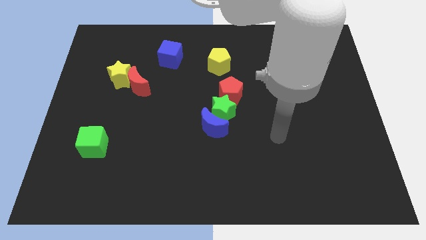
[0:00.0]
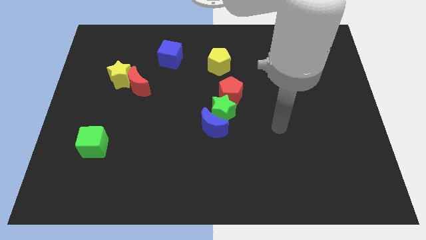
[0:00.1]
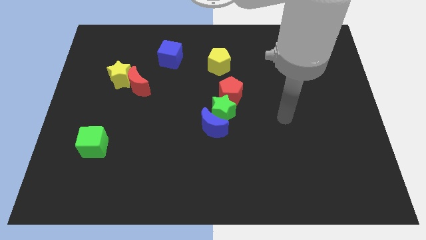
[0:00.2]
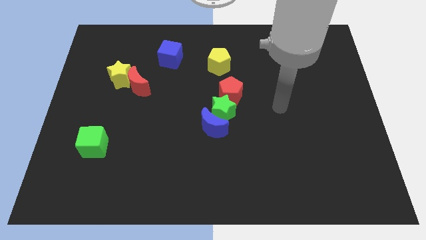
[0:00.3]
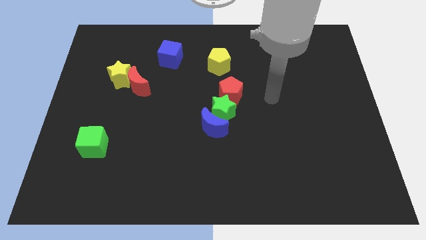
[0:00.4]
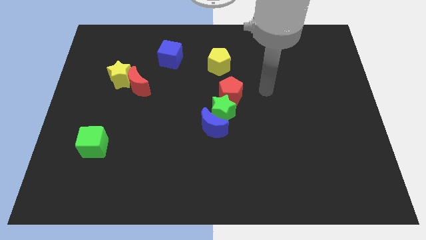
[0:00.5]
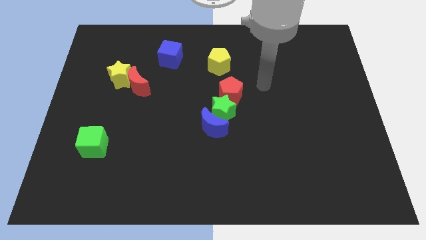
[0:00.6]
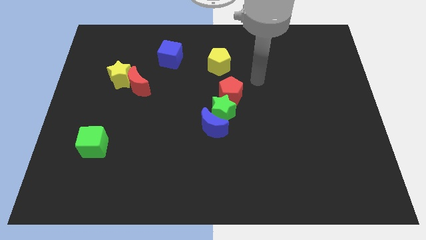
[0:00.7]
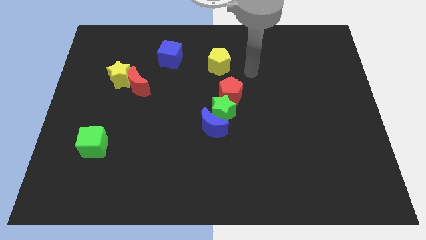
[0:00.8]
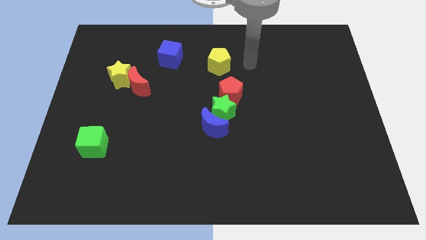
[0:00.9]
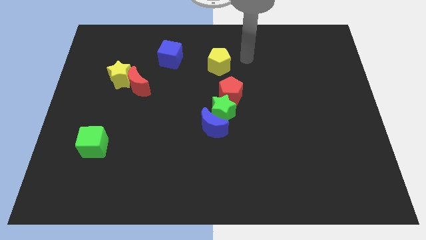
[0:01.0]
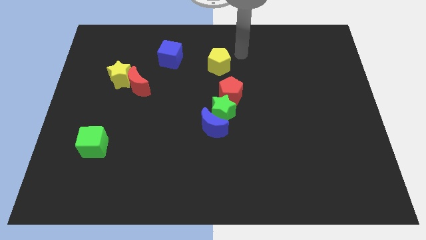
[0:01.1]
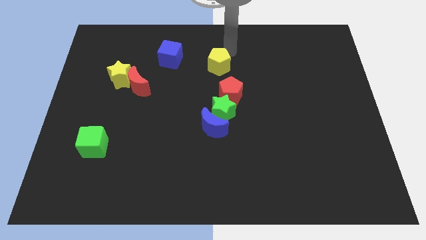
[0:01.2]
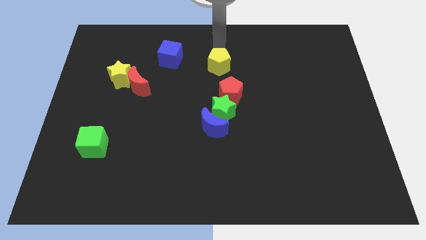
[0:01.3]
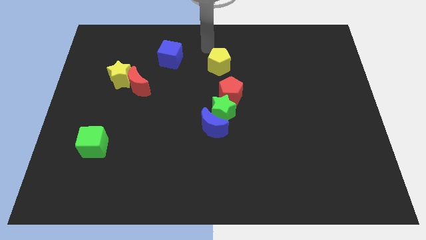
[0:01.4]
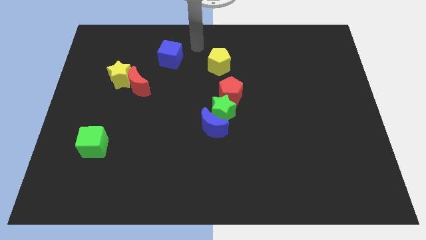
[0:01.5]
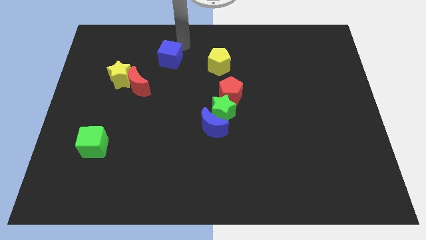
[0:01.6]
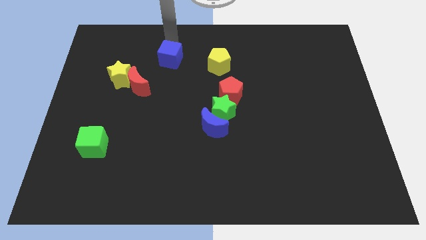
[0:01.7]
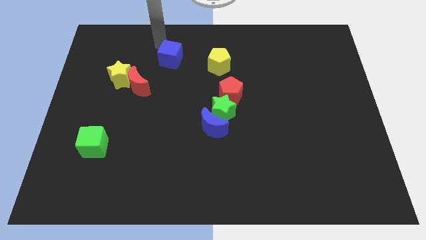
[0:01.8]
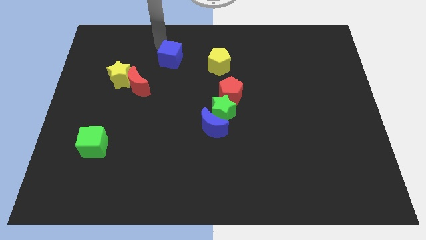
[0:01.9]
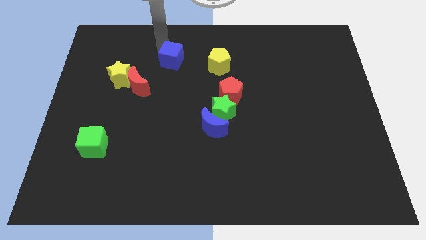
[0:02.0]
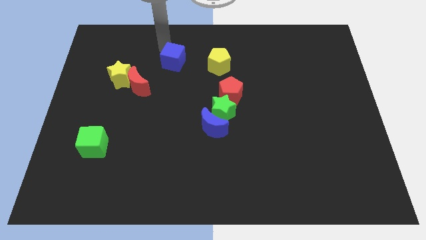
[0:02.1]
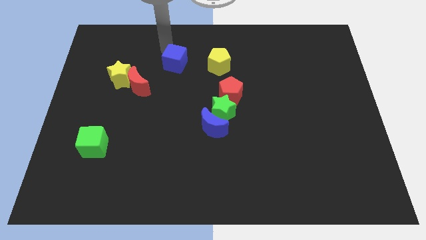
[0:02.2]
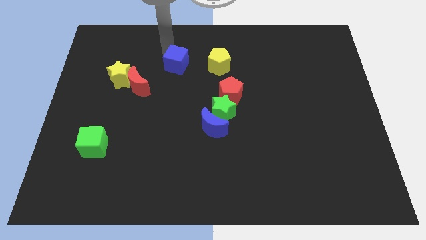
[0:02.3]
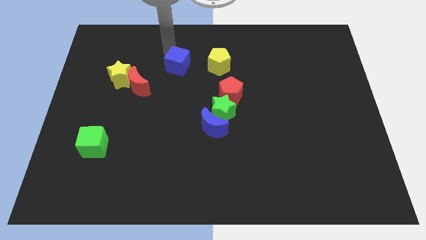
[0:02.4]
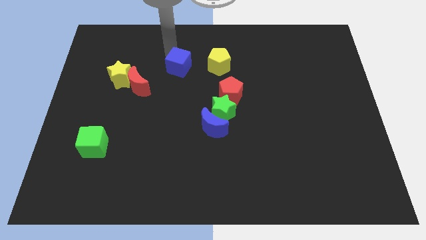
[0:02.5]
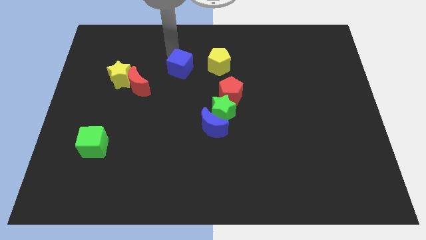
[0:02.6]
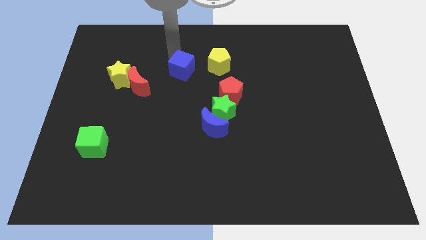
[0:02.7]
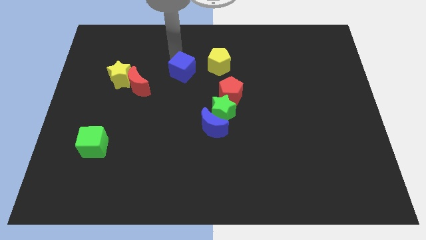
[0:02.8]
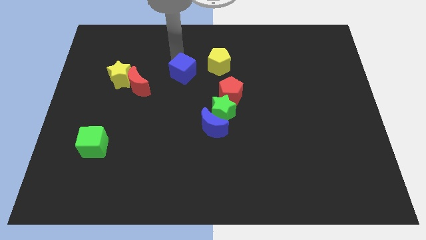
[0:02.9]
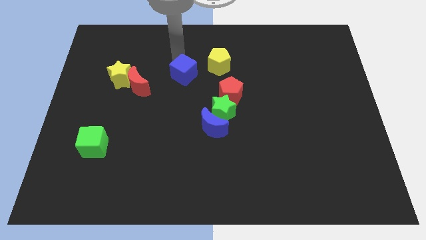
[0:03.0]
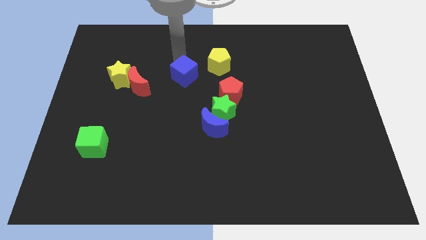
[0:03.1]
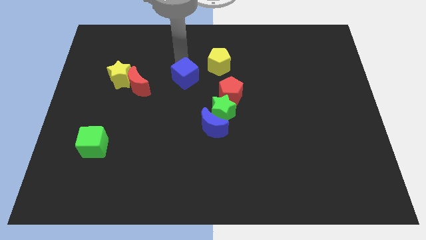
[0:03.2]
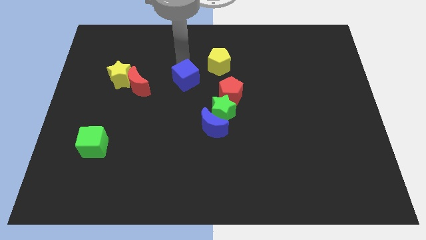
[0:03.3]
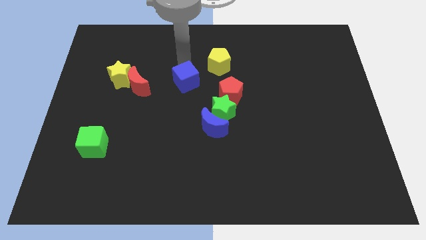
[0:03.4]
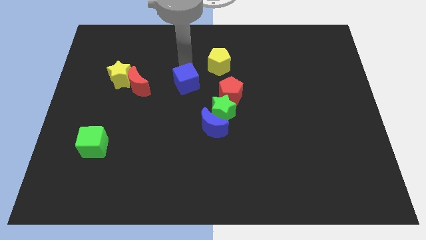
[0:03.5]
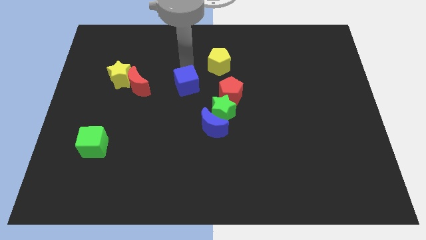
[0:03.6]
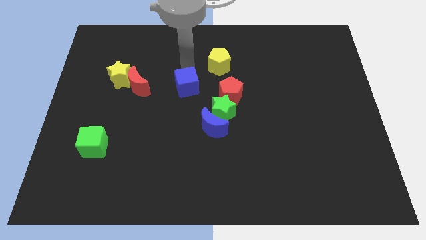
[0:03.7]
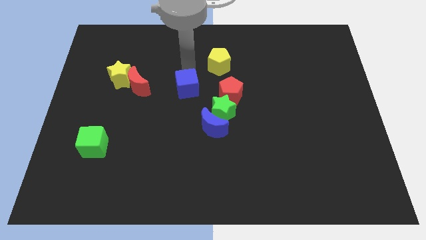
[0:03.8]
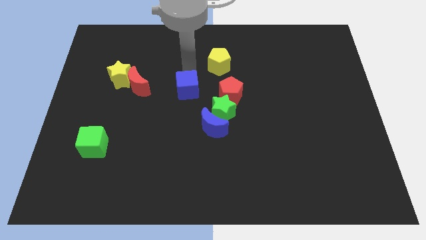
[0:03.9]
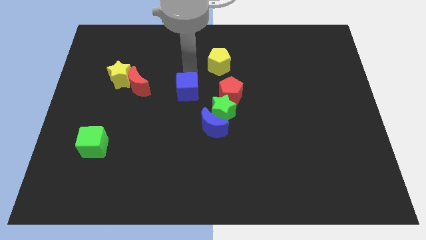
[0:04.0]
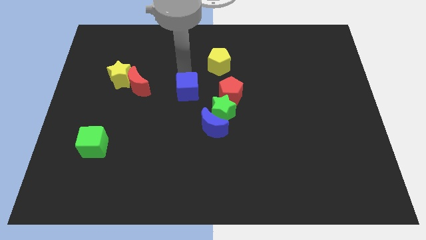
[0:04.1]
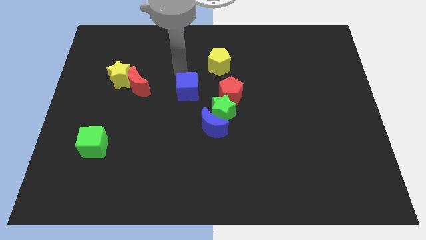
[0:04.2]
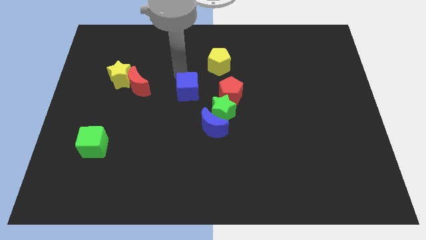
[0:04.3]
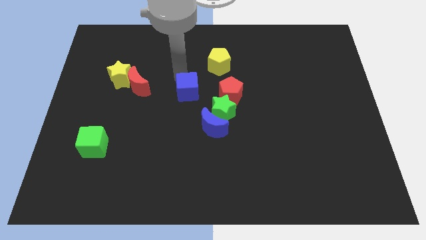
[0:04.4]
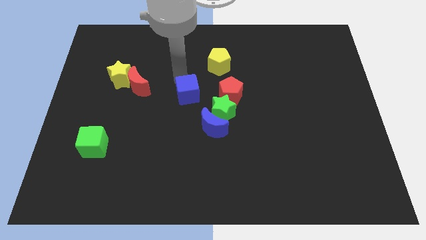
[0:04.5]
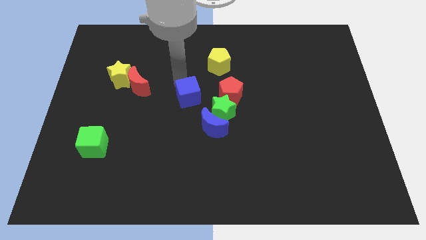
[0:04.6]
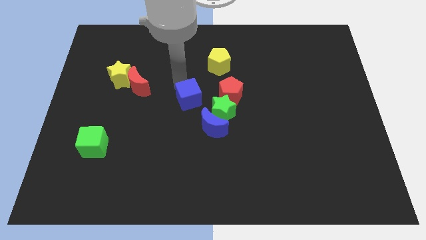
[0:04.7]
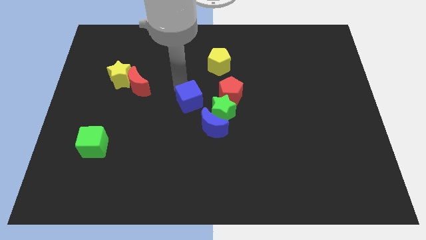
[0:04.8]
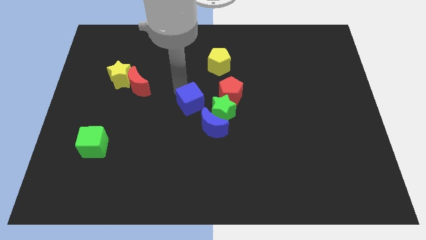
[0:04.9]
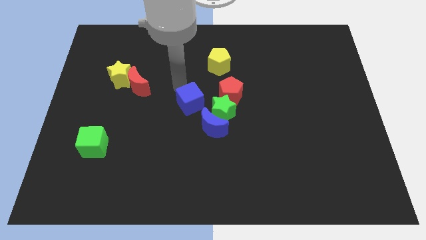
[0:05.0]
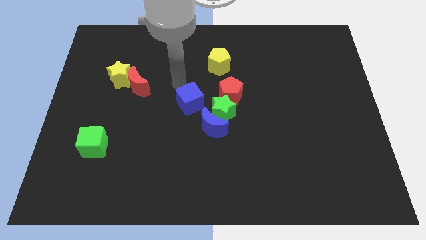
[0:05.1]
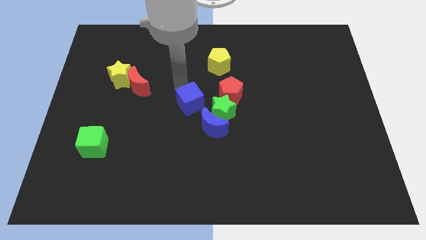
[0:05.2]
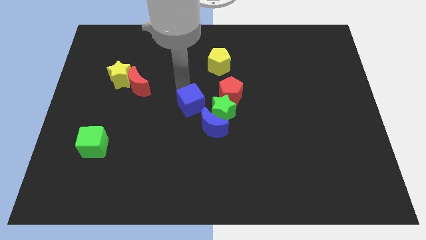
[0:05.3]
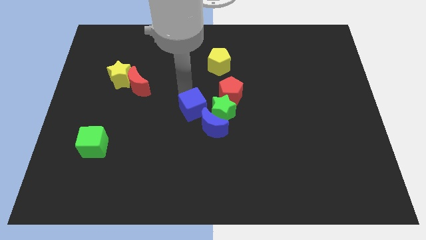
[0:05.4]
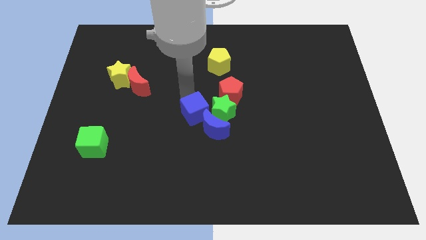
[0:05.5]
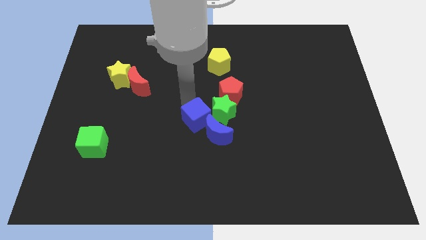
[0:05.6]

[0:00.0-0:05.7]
push the blue cube to the green star

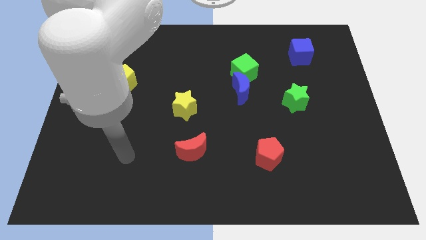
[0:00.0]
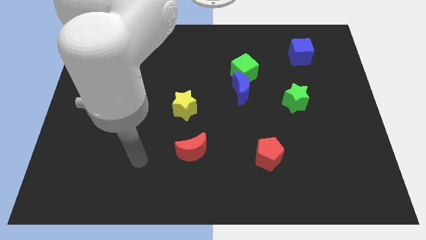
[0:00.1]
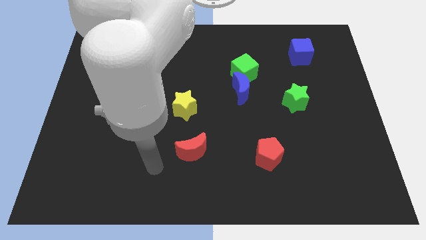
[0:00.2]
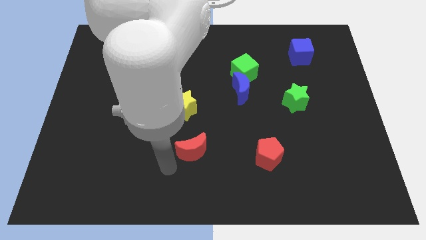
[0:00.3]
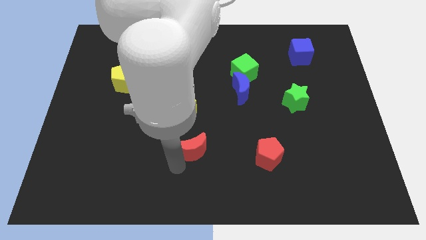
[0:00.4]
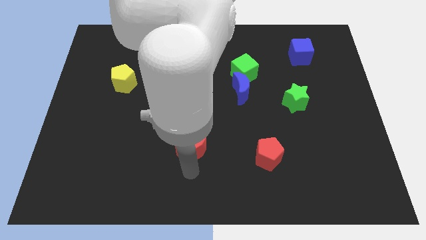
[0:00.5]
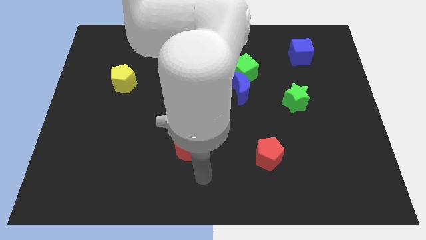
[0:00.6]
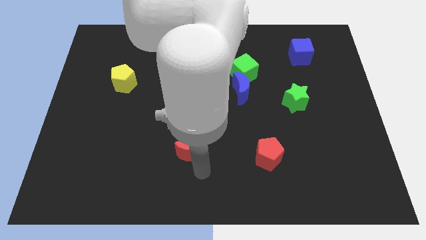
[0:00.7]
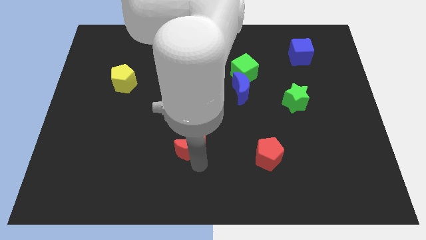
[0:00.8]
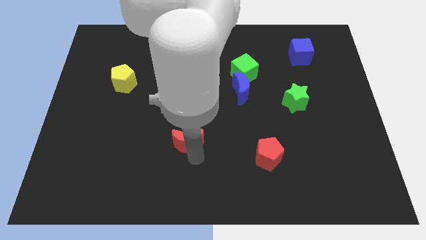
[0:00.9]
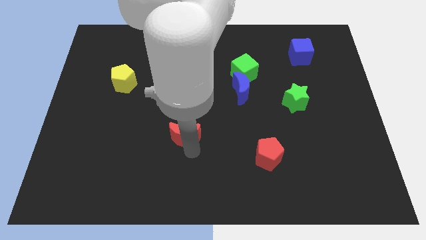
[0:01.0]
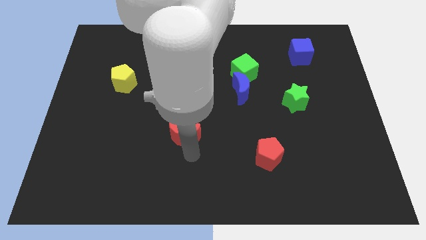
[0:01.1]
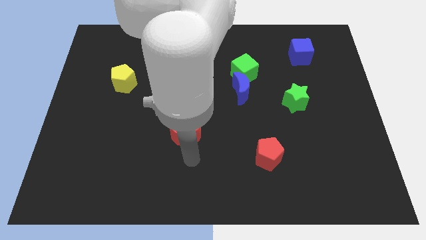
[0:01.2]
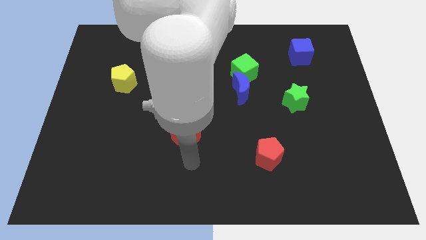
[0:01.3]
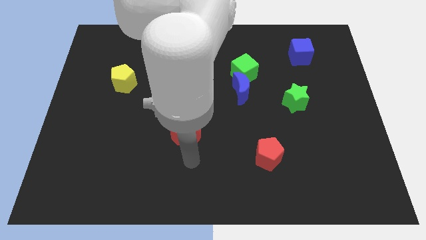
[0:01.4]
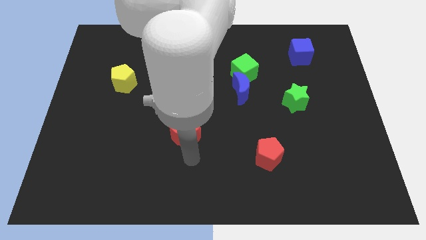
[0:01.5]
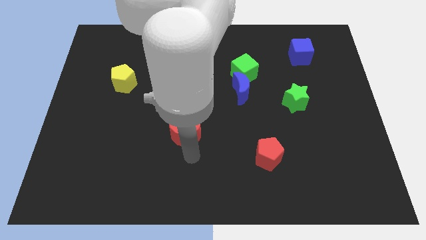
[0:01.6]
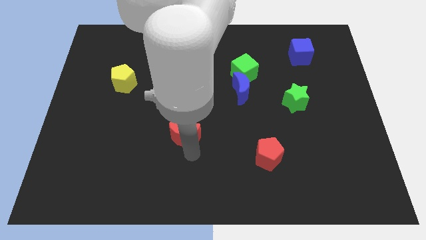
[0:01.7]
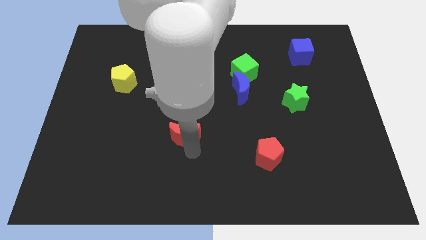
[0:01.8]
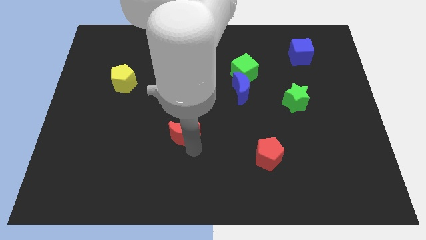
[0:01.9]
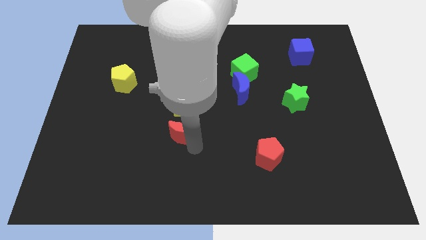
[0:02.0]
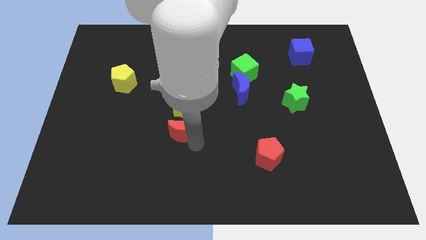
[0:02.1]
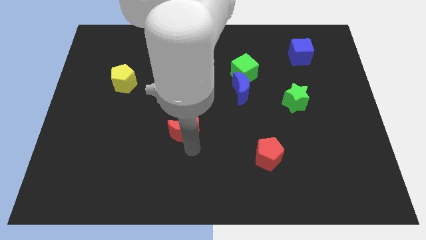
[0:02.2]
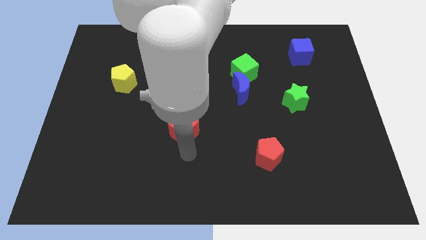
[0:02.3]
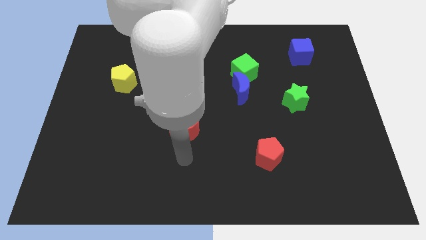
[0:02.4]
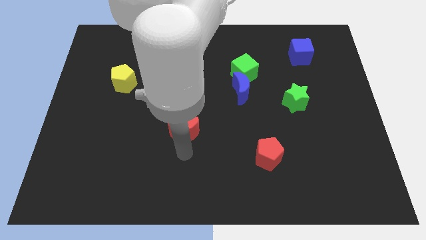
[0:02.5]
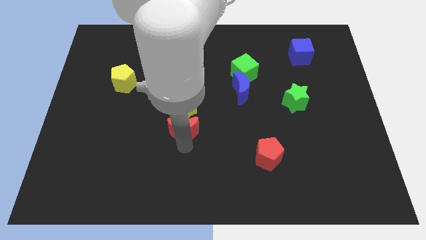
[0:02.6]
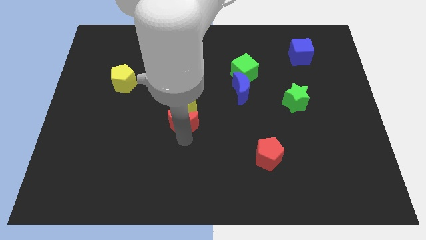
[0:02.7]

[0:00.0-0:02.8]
push the red moon close to the yellow star
